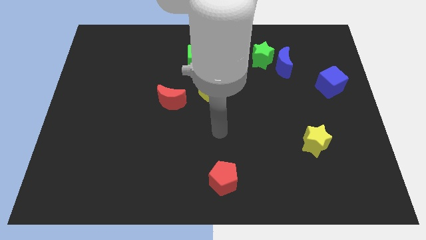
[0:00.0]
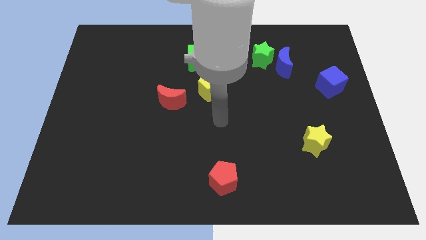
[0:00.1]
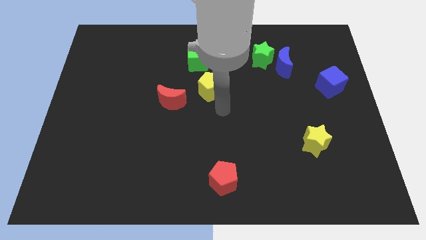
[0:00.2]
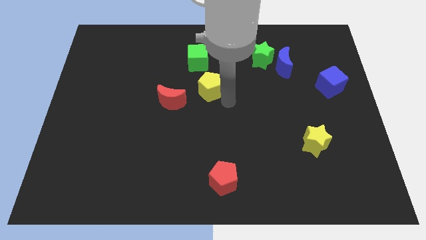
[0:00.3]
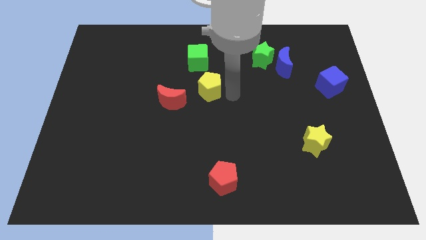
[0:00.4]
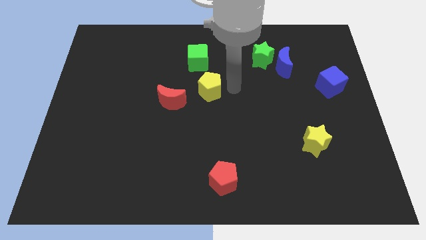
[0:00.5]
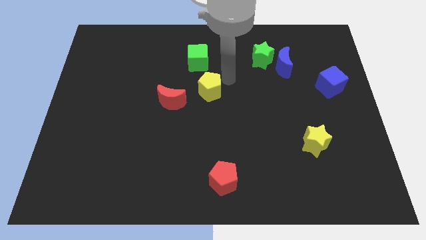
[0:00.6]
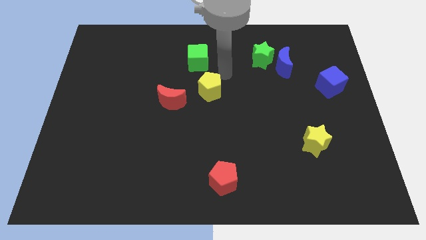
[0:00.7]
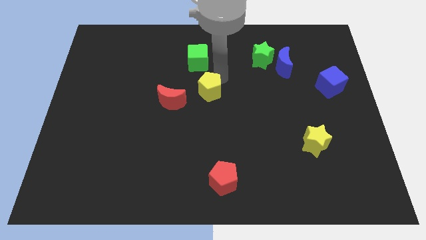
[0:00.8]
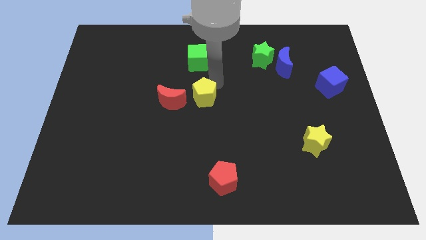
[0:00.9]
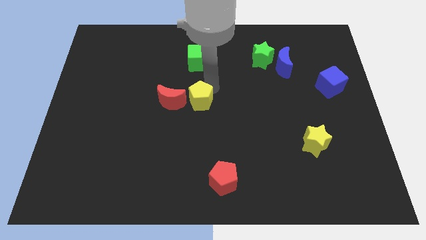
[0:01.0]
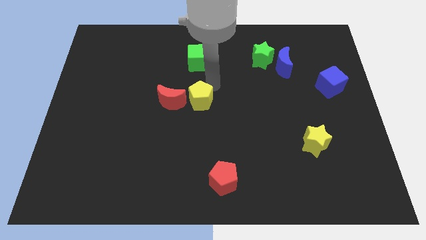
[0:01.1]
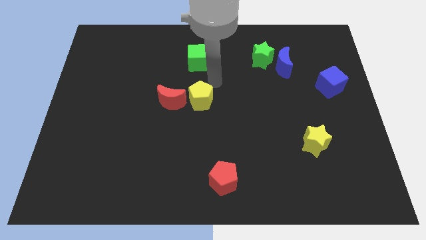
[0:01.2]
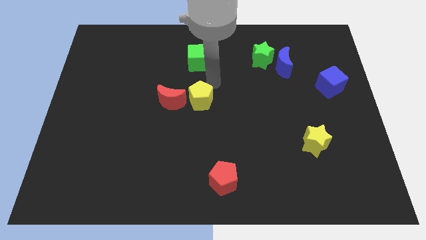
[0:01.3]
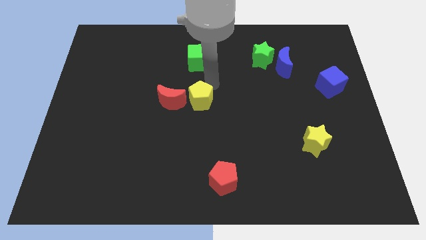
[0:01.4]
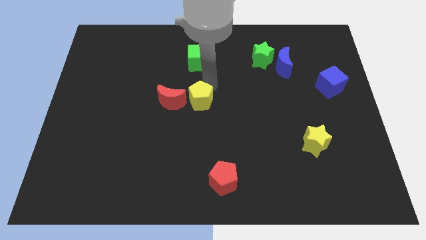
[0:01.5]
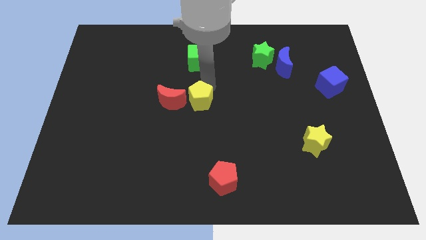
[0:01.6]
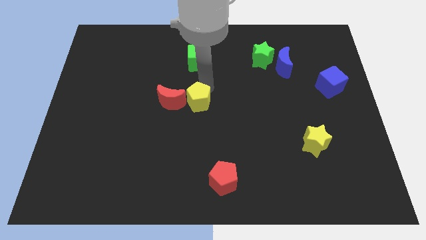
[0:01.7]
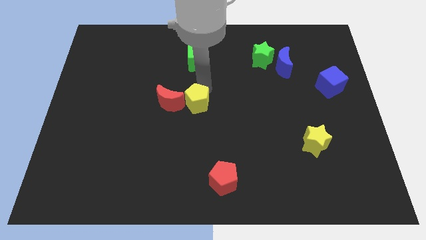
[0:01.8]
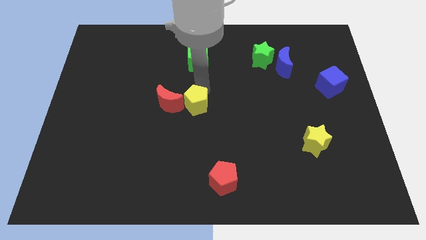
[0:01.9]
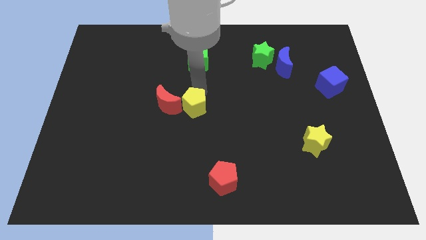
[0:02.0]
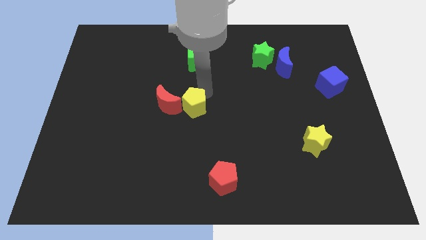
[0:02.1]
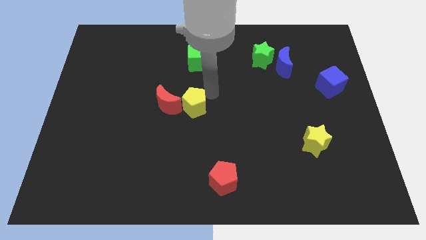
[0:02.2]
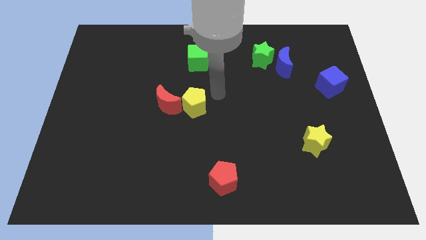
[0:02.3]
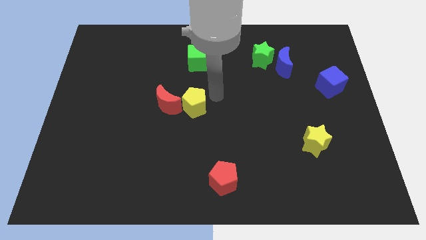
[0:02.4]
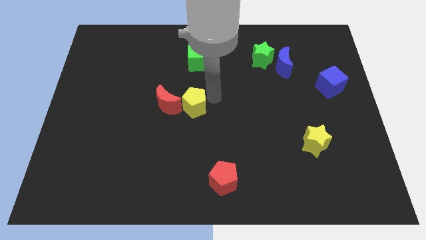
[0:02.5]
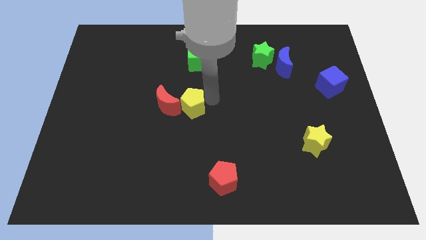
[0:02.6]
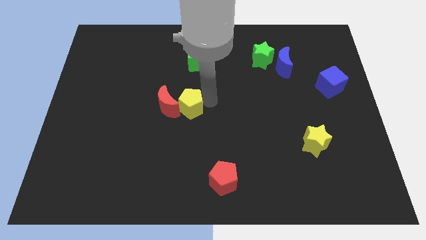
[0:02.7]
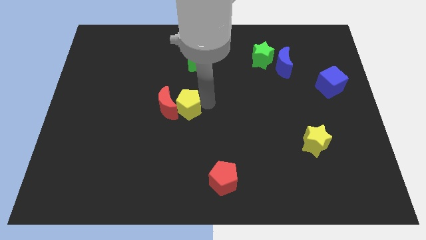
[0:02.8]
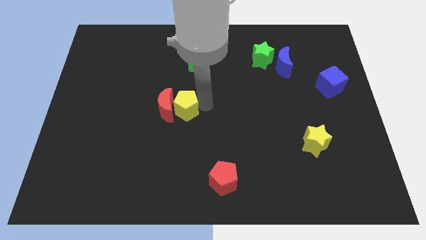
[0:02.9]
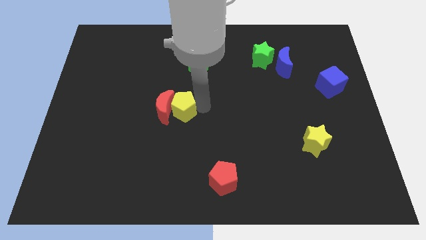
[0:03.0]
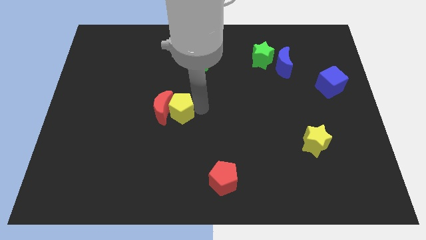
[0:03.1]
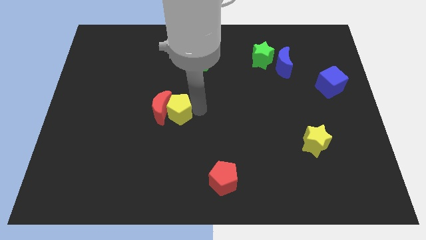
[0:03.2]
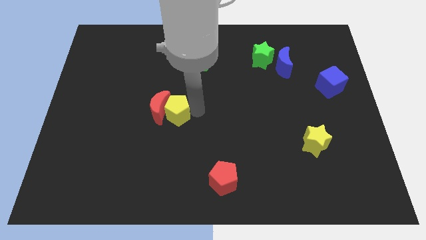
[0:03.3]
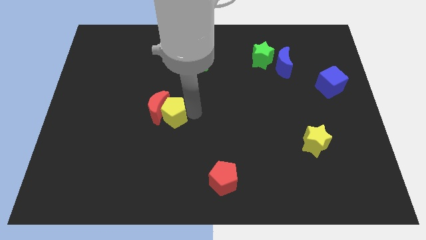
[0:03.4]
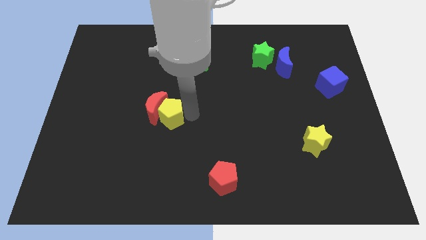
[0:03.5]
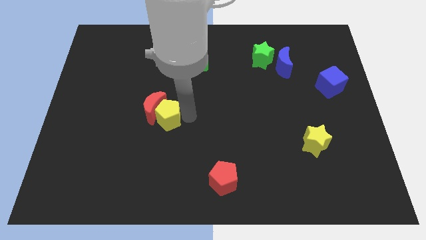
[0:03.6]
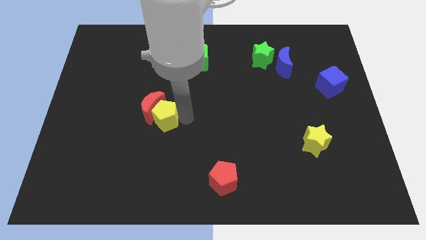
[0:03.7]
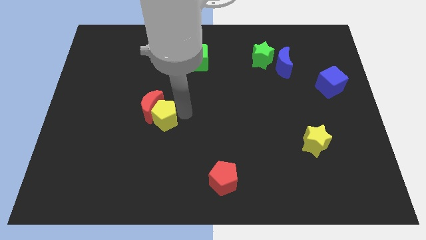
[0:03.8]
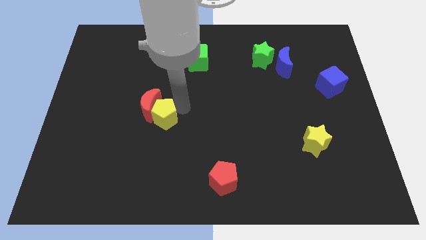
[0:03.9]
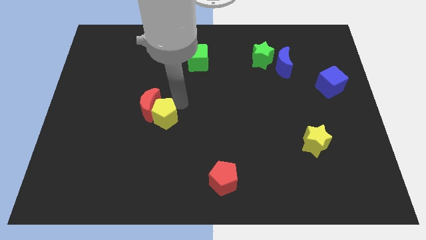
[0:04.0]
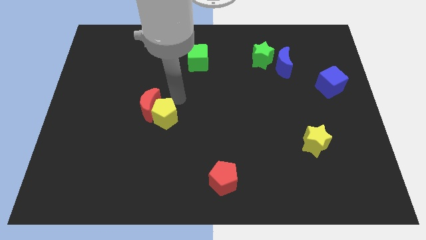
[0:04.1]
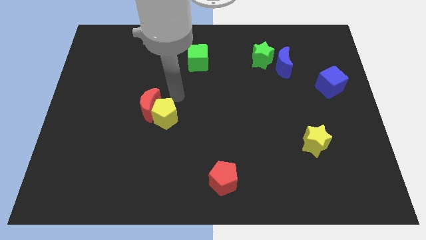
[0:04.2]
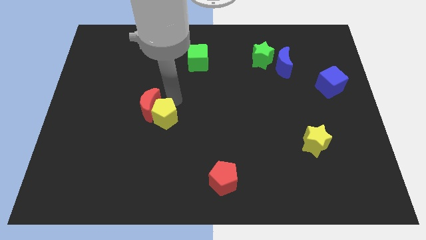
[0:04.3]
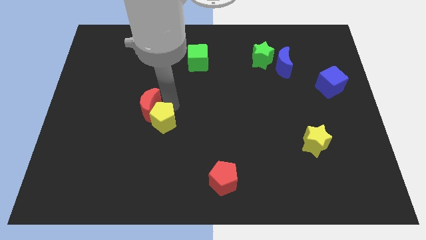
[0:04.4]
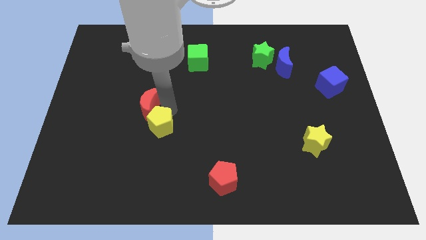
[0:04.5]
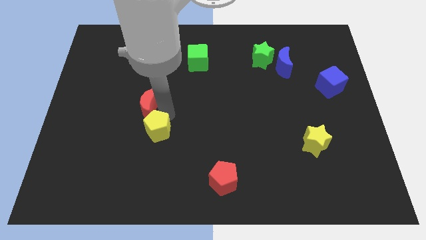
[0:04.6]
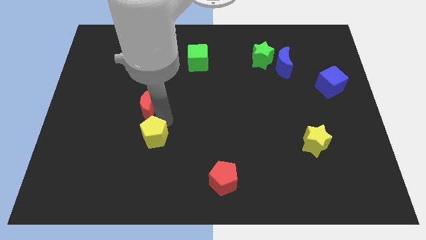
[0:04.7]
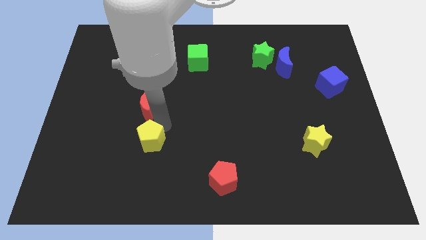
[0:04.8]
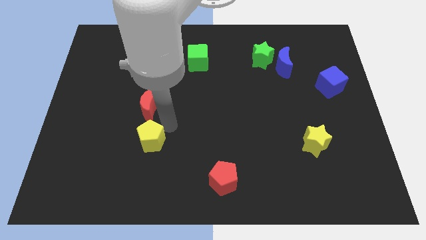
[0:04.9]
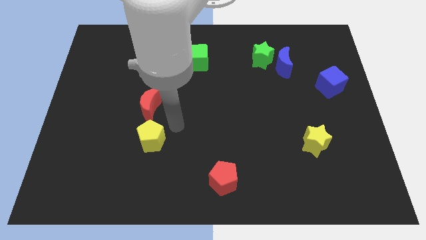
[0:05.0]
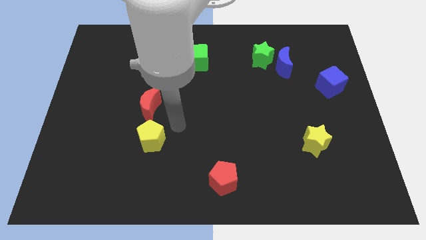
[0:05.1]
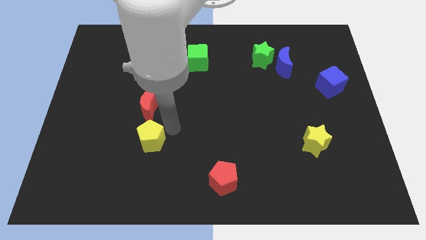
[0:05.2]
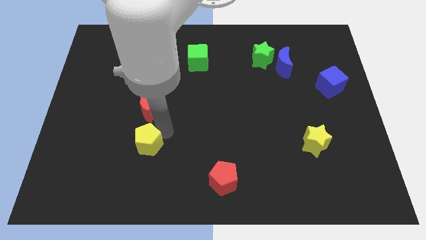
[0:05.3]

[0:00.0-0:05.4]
push the yellow pentagon downwards and to the left

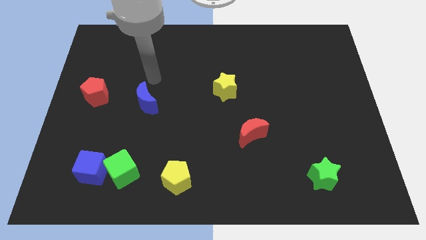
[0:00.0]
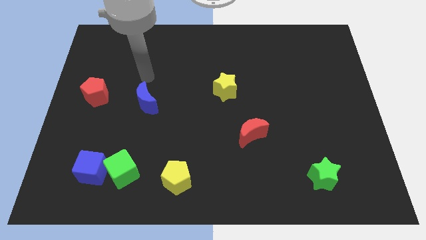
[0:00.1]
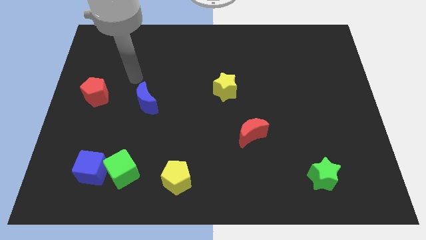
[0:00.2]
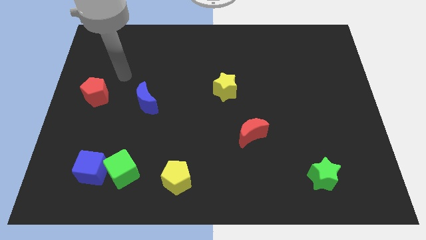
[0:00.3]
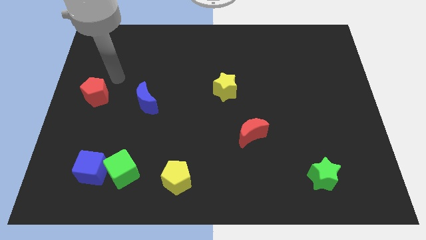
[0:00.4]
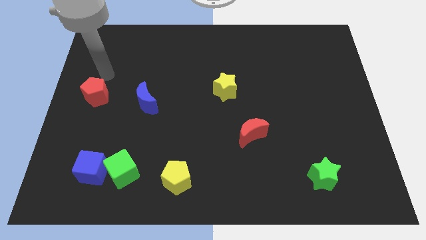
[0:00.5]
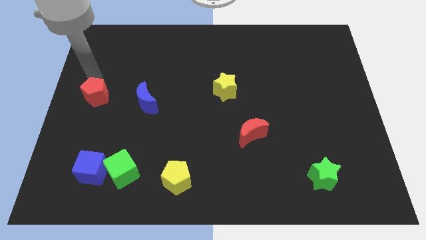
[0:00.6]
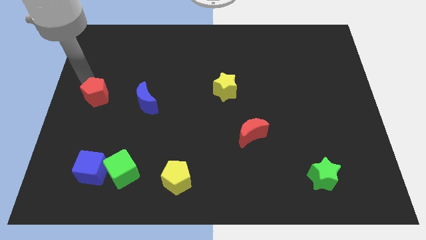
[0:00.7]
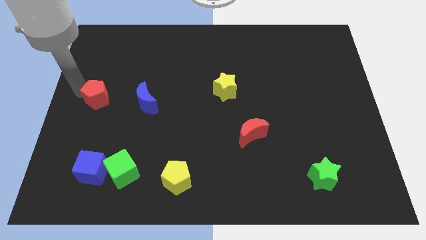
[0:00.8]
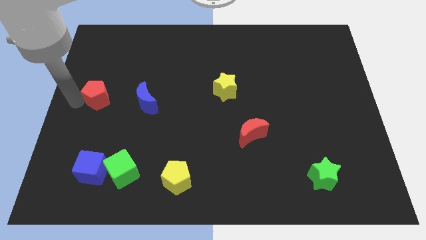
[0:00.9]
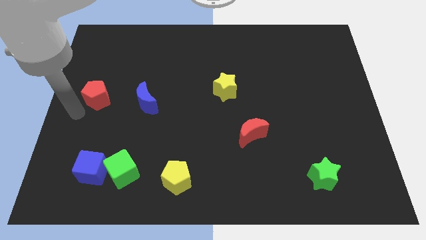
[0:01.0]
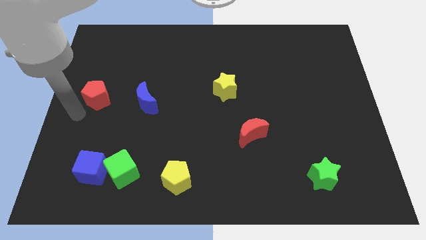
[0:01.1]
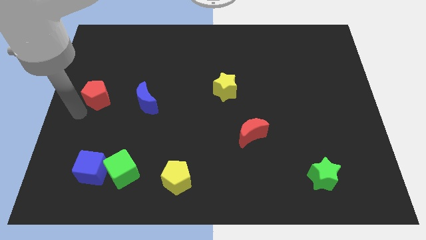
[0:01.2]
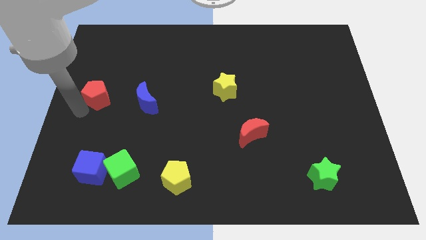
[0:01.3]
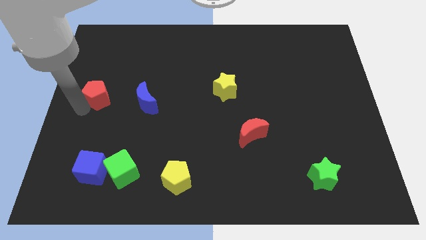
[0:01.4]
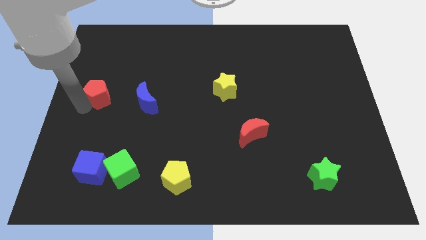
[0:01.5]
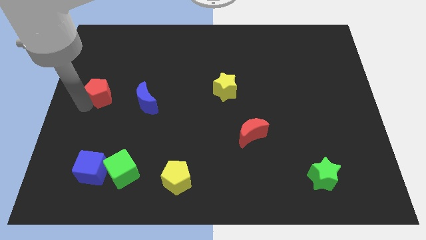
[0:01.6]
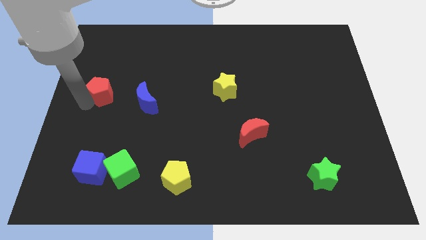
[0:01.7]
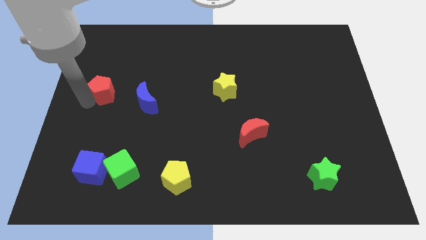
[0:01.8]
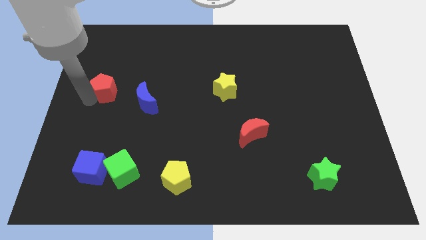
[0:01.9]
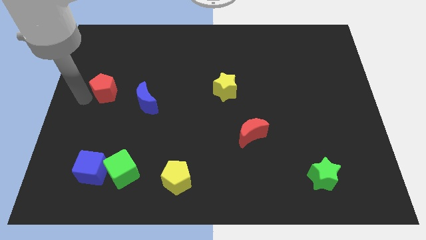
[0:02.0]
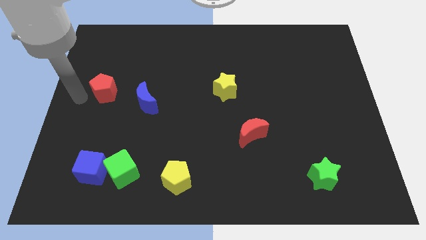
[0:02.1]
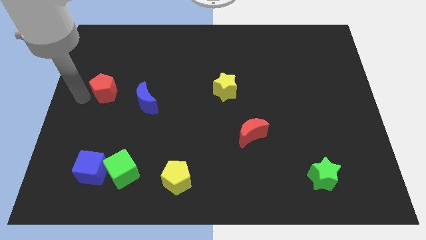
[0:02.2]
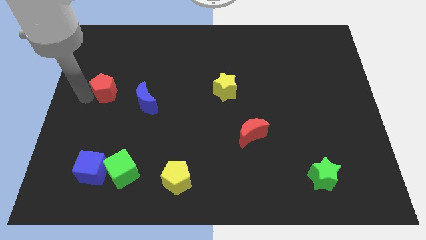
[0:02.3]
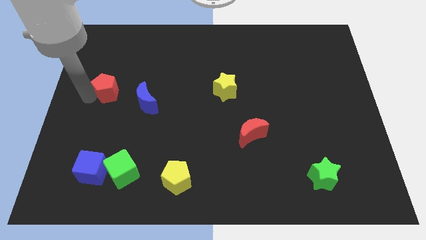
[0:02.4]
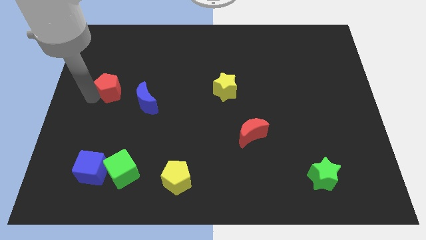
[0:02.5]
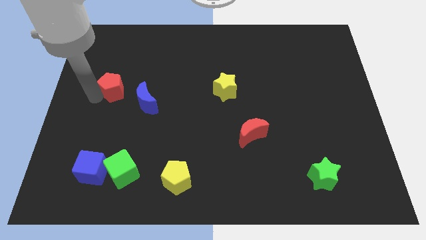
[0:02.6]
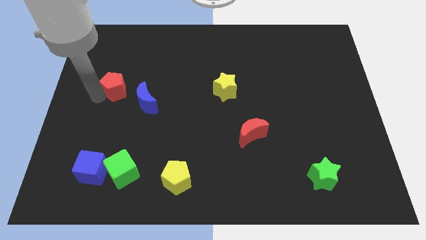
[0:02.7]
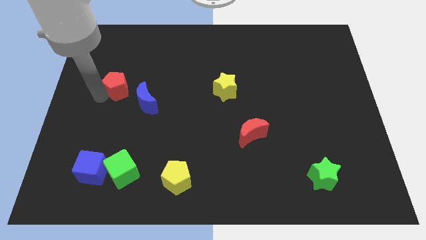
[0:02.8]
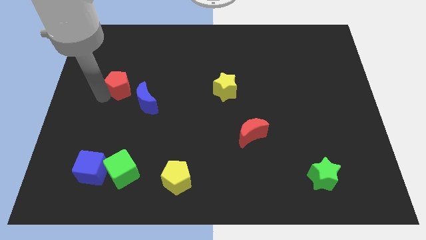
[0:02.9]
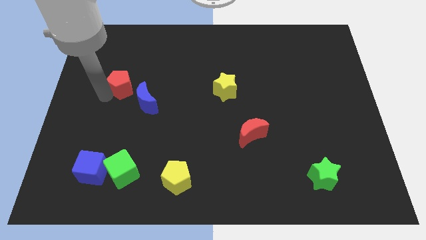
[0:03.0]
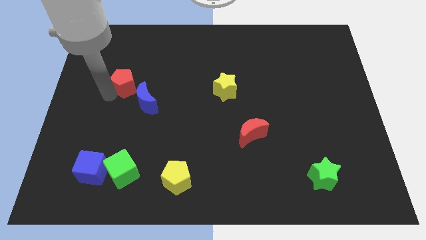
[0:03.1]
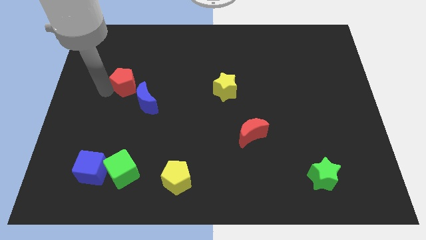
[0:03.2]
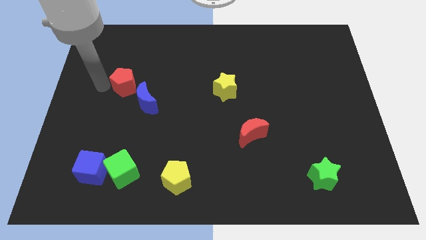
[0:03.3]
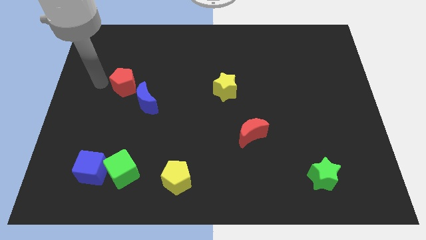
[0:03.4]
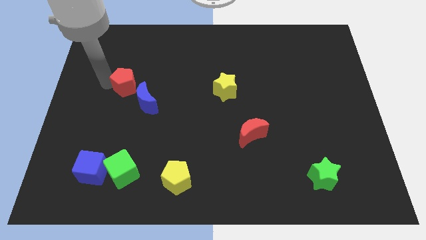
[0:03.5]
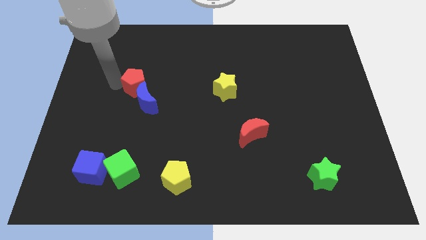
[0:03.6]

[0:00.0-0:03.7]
slide the red pentagon slightly right
